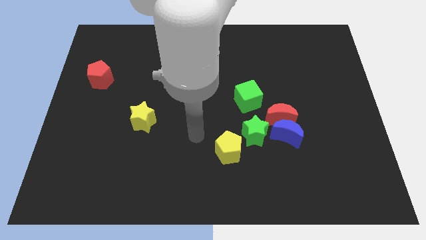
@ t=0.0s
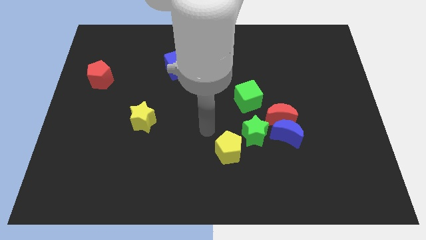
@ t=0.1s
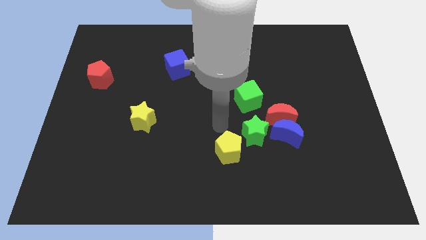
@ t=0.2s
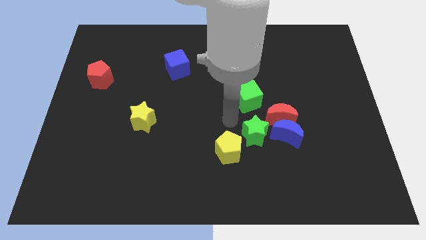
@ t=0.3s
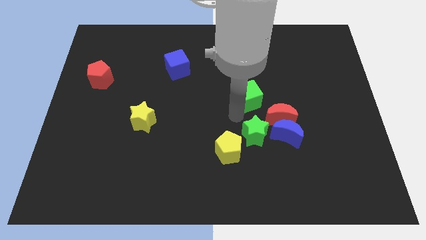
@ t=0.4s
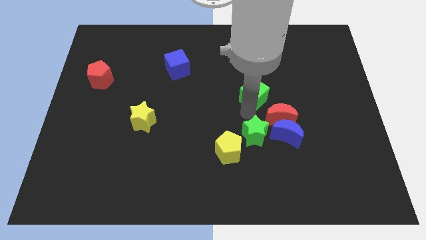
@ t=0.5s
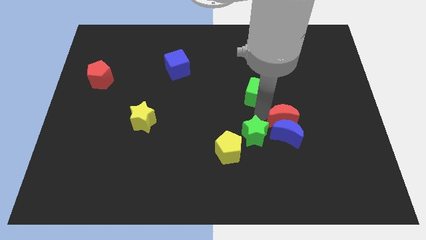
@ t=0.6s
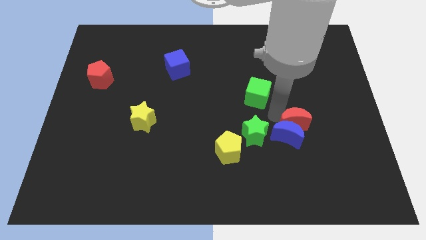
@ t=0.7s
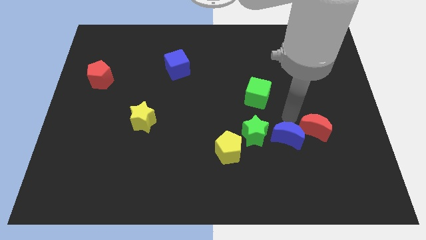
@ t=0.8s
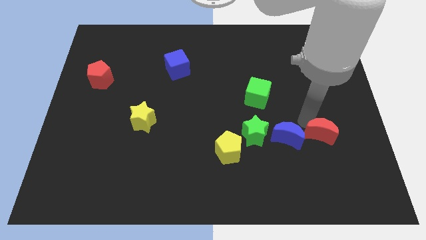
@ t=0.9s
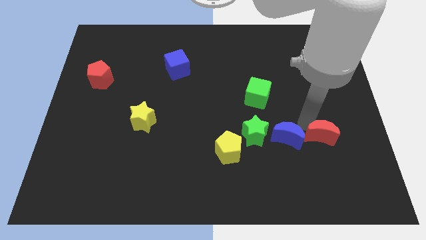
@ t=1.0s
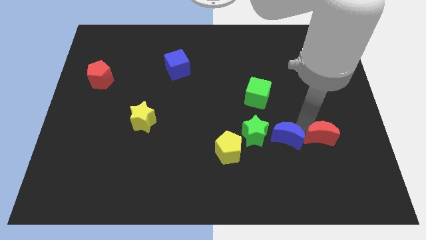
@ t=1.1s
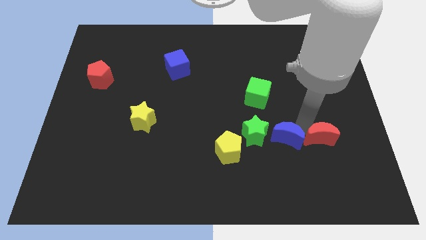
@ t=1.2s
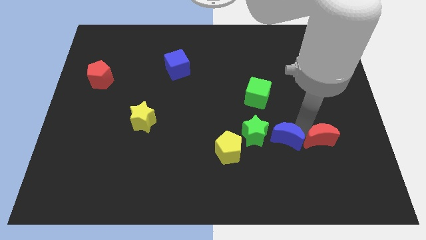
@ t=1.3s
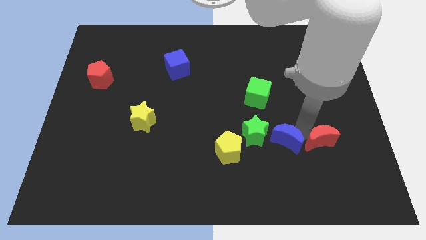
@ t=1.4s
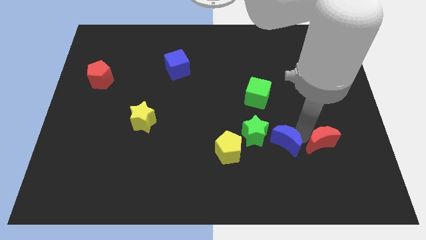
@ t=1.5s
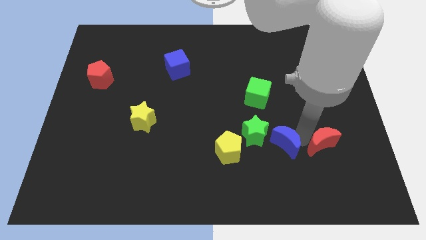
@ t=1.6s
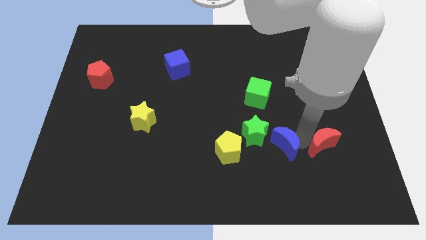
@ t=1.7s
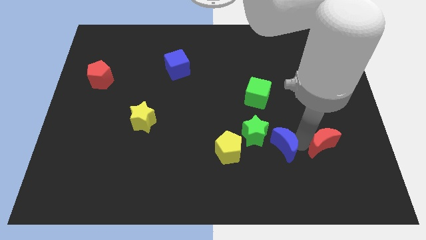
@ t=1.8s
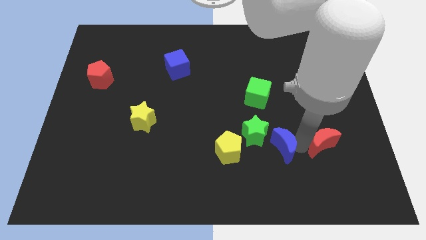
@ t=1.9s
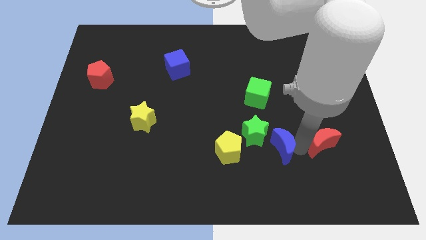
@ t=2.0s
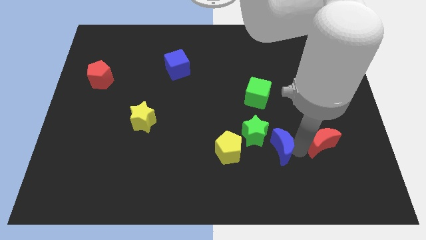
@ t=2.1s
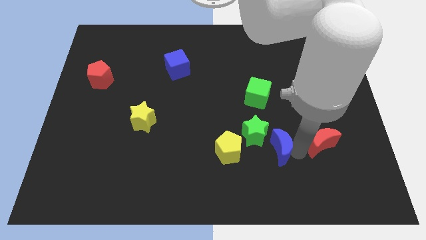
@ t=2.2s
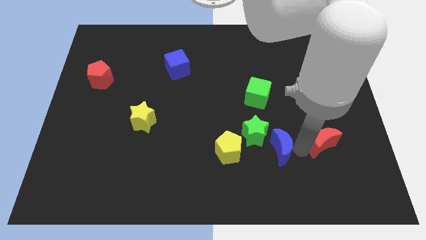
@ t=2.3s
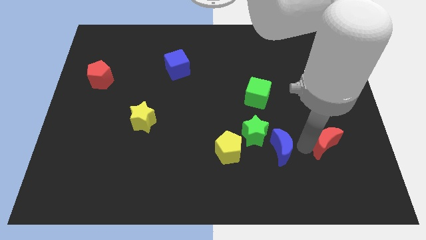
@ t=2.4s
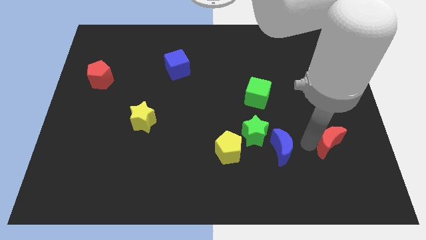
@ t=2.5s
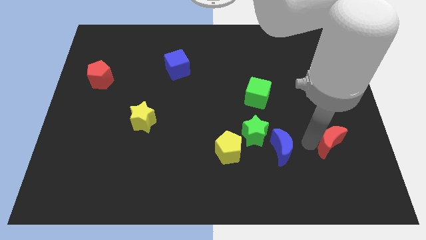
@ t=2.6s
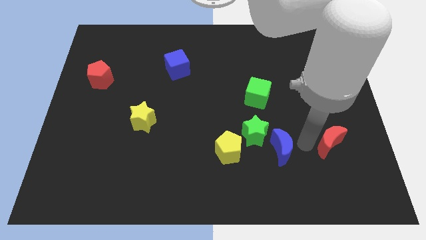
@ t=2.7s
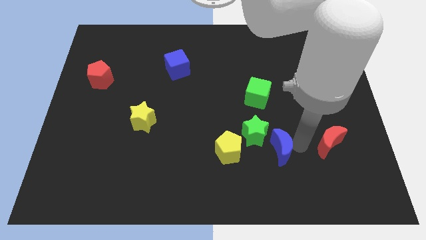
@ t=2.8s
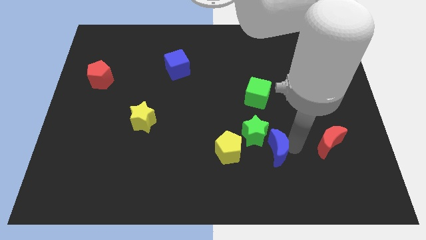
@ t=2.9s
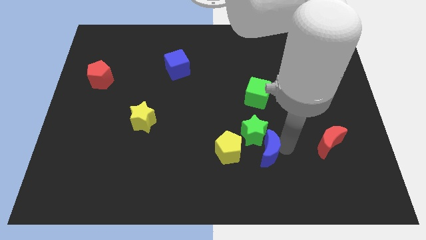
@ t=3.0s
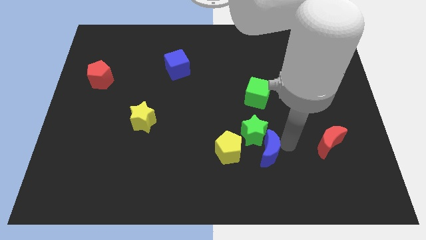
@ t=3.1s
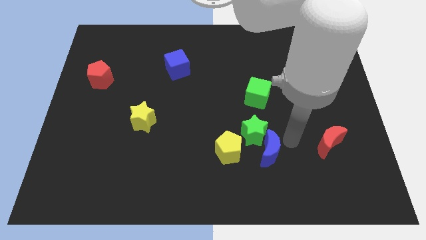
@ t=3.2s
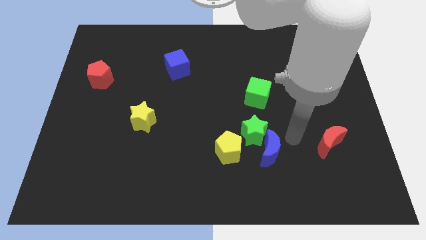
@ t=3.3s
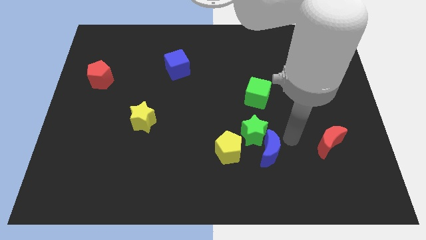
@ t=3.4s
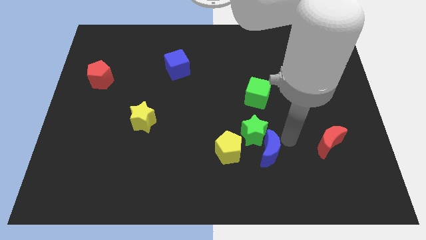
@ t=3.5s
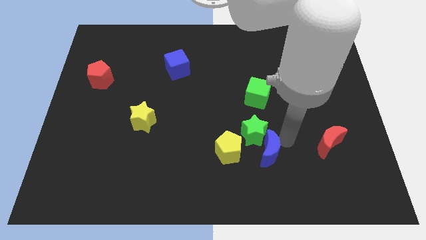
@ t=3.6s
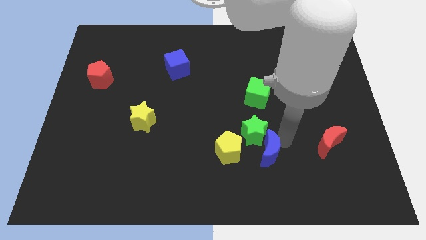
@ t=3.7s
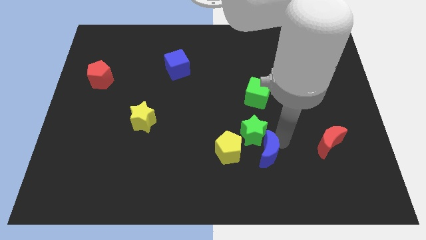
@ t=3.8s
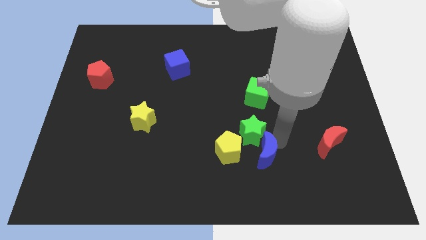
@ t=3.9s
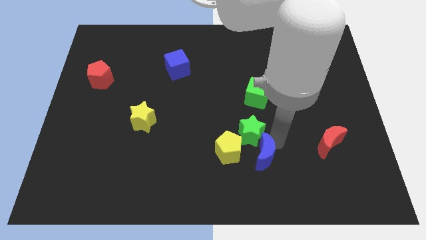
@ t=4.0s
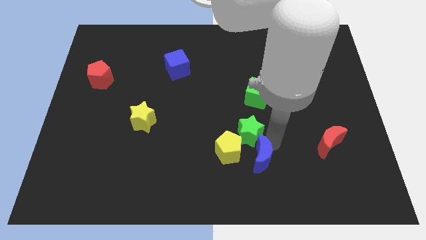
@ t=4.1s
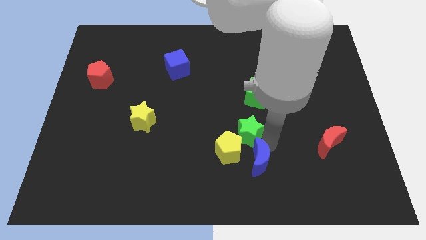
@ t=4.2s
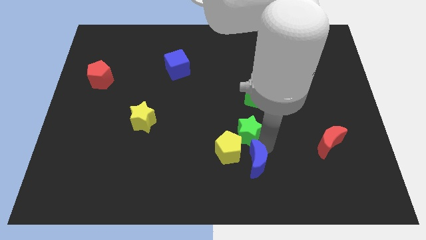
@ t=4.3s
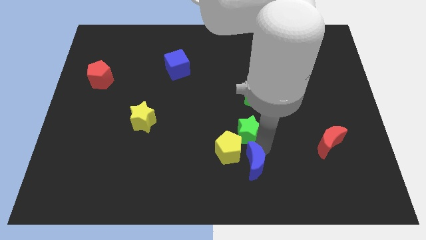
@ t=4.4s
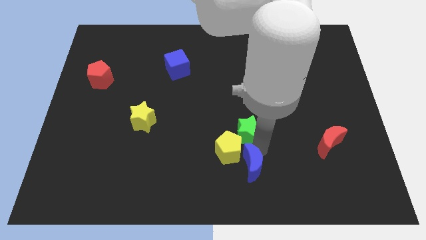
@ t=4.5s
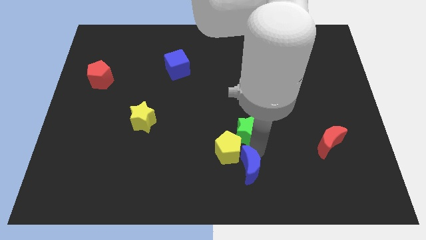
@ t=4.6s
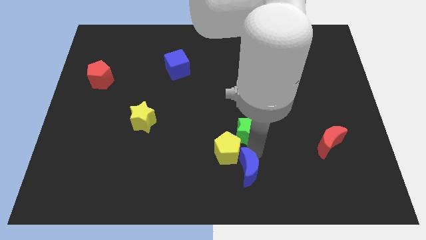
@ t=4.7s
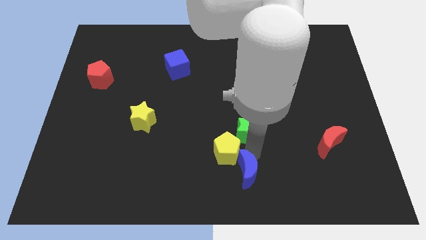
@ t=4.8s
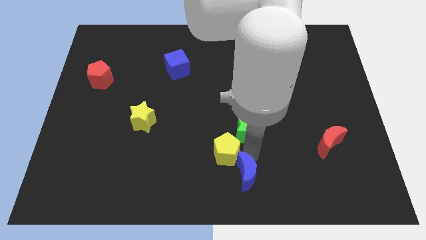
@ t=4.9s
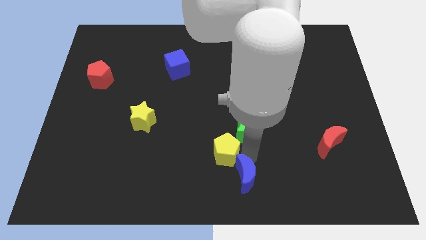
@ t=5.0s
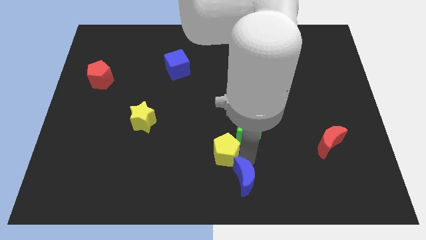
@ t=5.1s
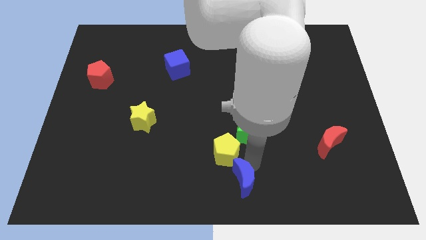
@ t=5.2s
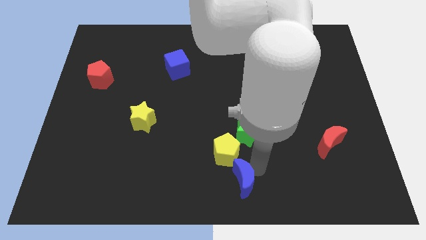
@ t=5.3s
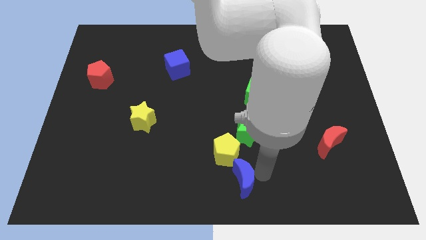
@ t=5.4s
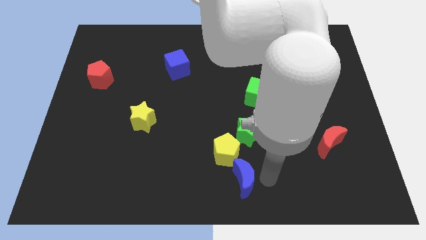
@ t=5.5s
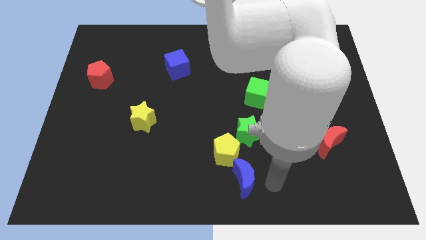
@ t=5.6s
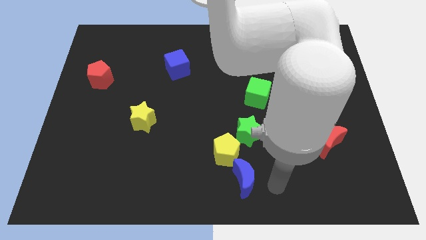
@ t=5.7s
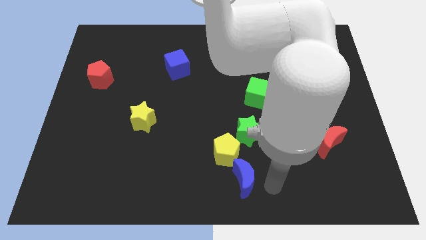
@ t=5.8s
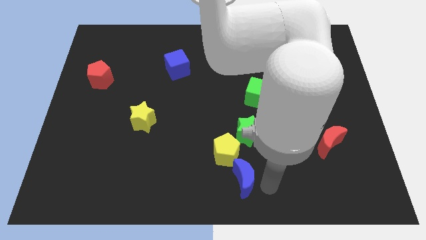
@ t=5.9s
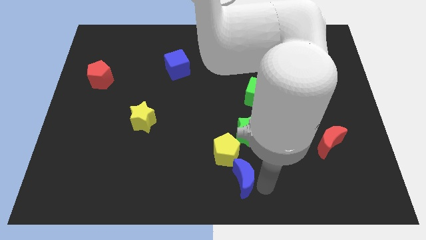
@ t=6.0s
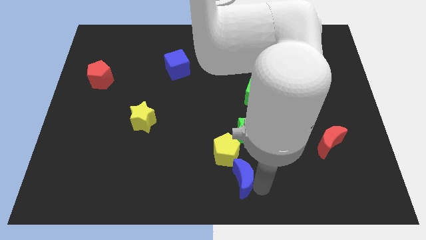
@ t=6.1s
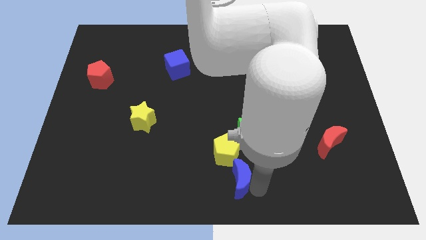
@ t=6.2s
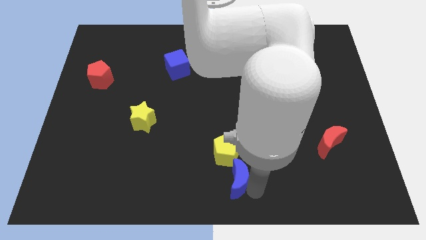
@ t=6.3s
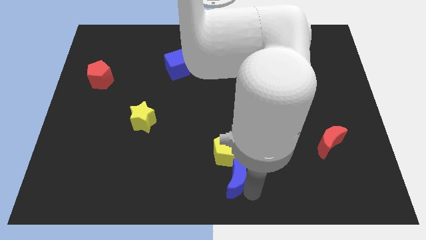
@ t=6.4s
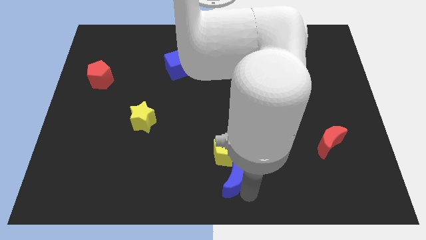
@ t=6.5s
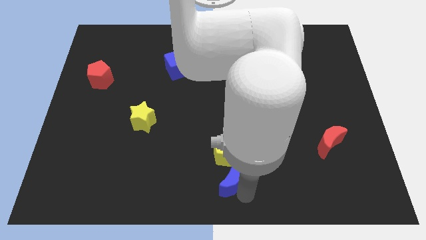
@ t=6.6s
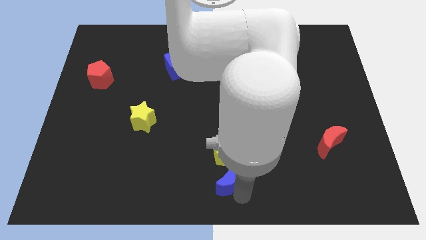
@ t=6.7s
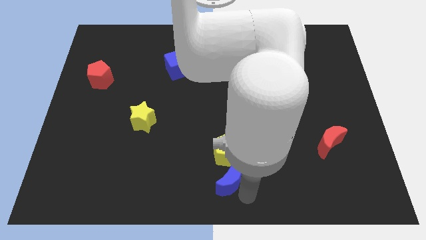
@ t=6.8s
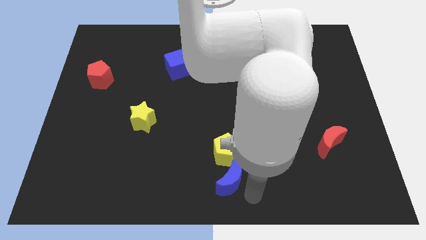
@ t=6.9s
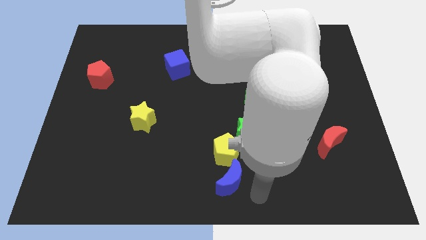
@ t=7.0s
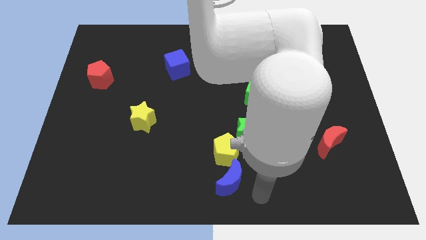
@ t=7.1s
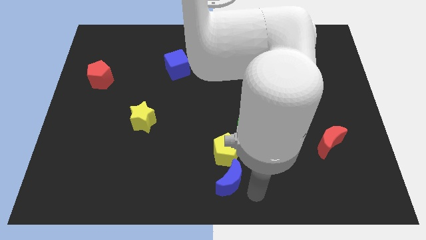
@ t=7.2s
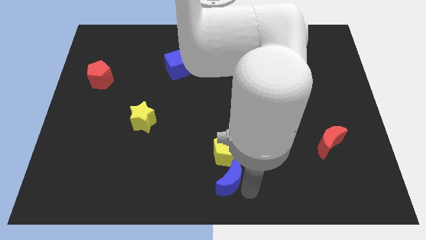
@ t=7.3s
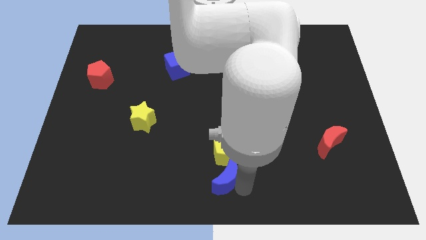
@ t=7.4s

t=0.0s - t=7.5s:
slightly move the blue moon to the left

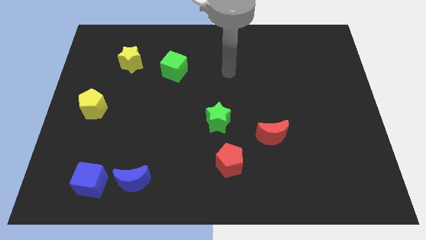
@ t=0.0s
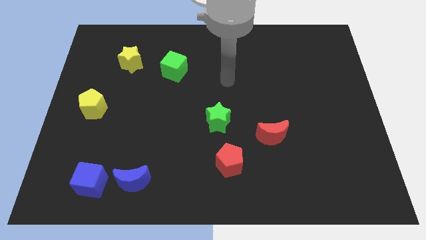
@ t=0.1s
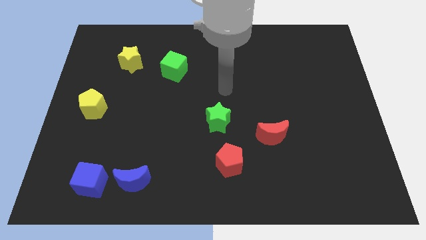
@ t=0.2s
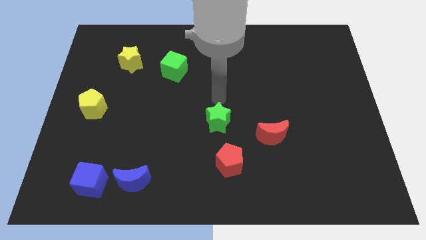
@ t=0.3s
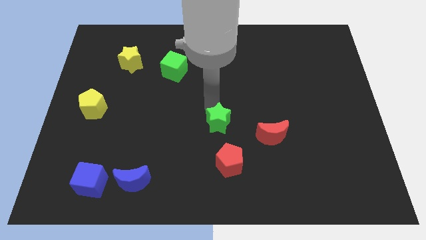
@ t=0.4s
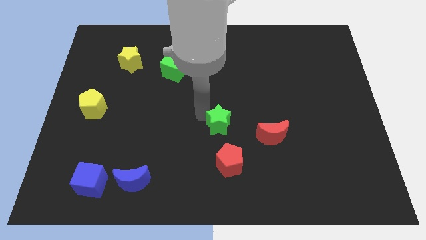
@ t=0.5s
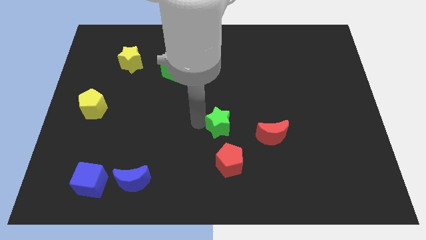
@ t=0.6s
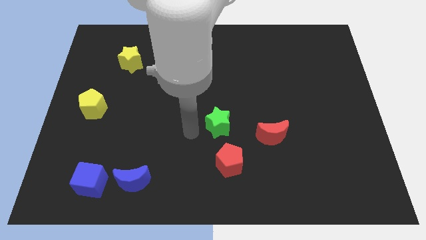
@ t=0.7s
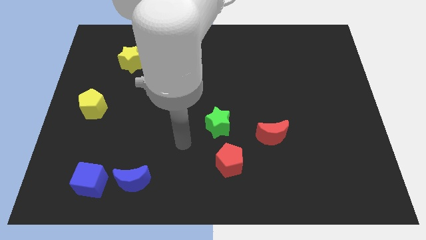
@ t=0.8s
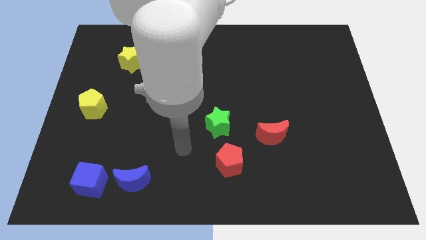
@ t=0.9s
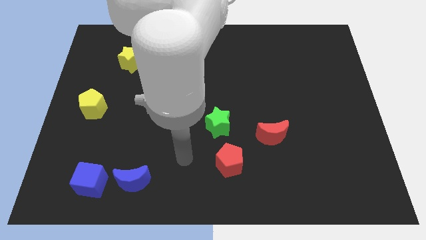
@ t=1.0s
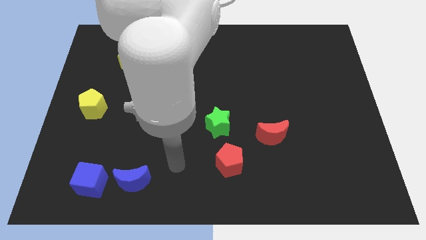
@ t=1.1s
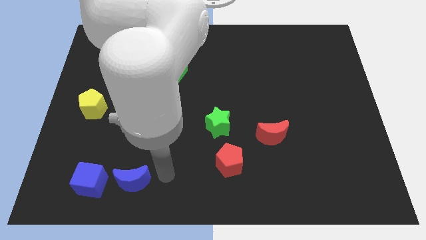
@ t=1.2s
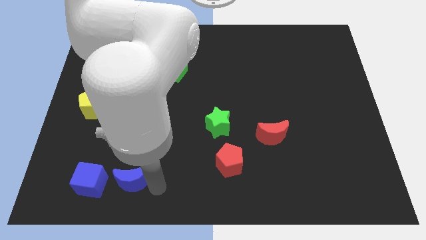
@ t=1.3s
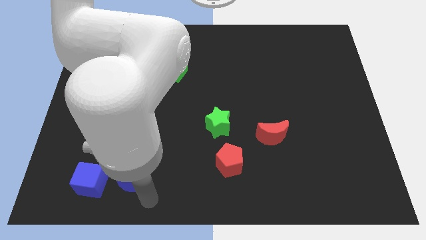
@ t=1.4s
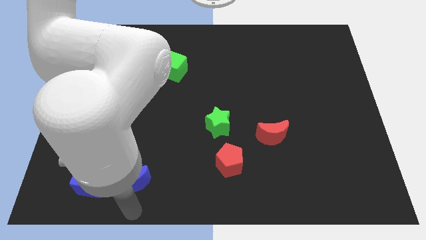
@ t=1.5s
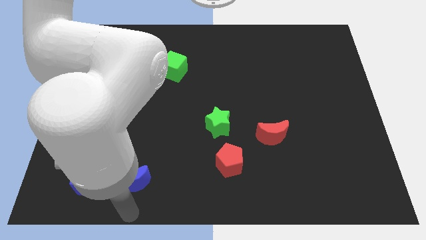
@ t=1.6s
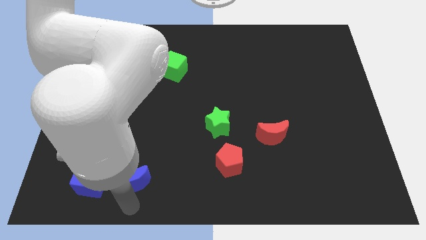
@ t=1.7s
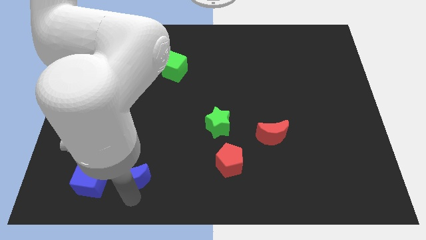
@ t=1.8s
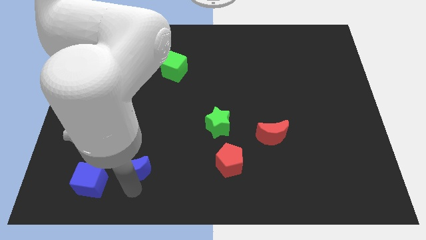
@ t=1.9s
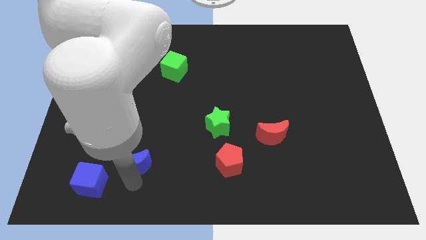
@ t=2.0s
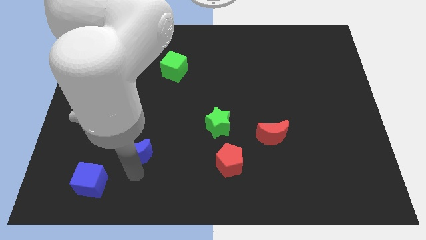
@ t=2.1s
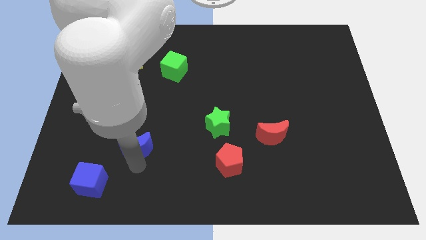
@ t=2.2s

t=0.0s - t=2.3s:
slightly push the blue moon upwards
